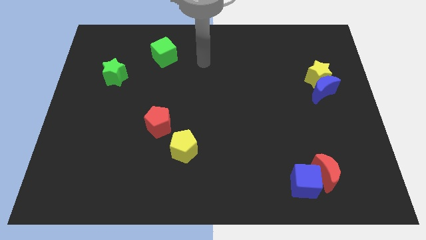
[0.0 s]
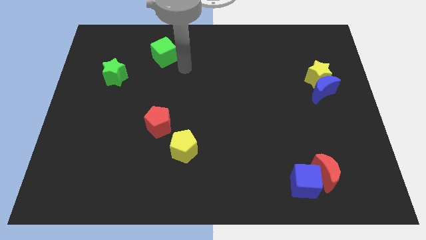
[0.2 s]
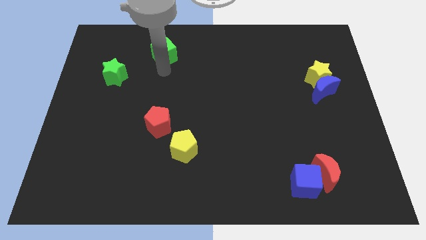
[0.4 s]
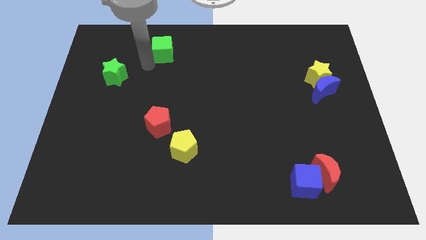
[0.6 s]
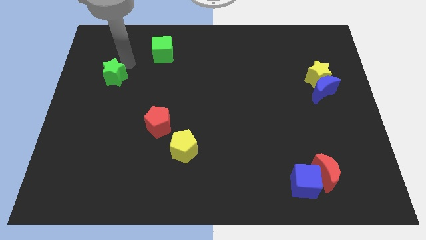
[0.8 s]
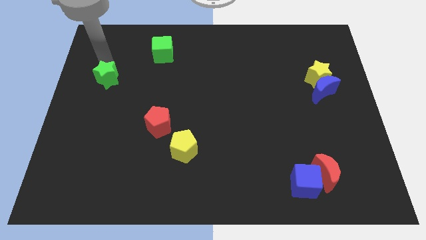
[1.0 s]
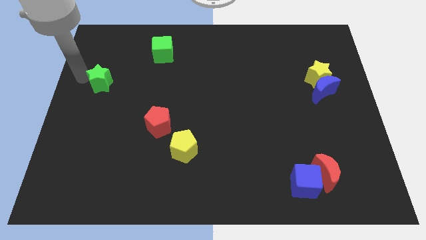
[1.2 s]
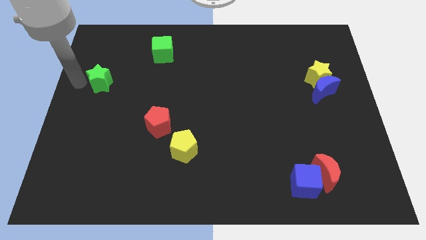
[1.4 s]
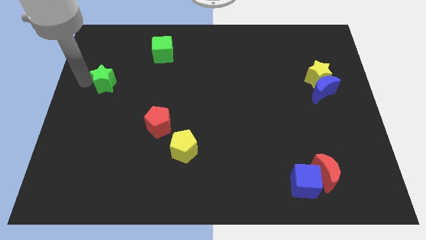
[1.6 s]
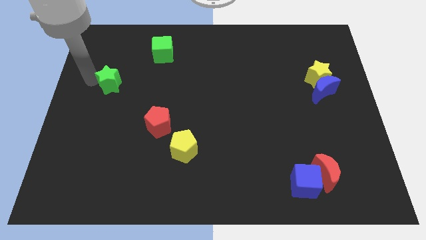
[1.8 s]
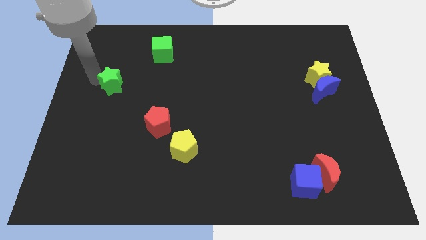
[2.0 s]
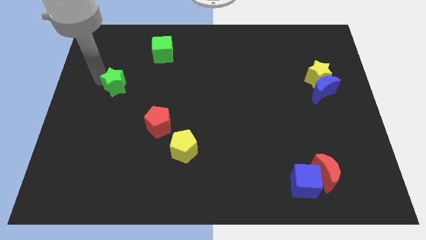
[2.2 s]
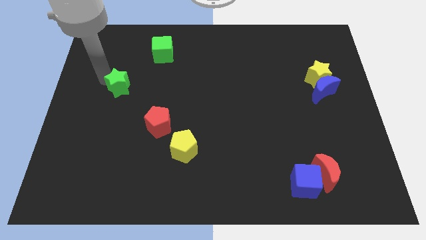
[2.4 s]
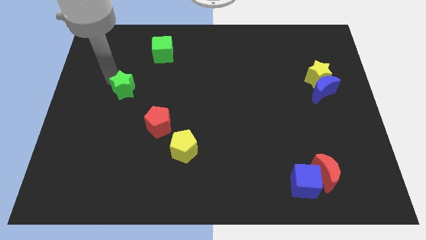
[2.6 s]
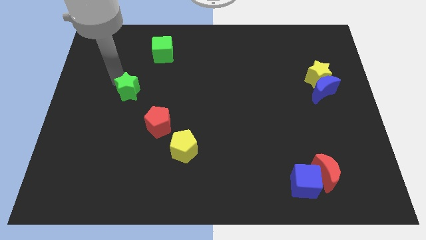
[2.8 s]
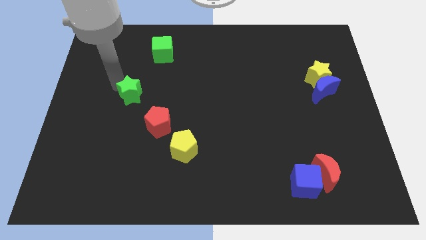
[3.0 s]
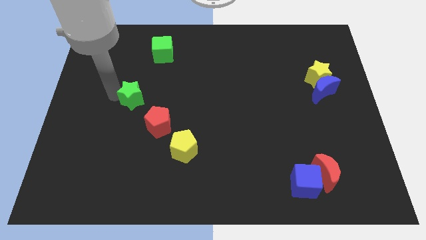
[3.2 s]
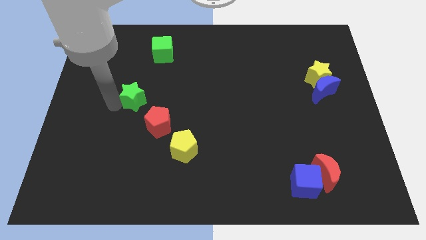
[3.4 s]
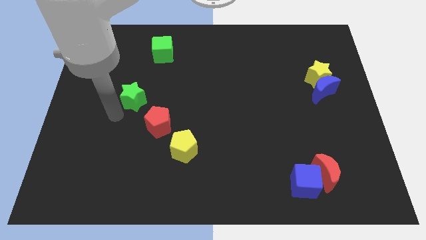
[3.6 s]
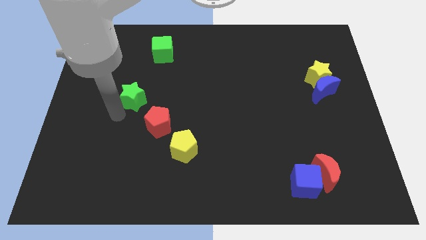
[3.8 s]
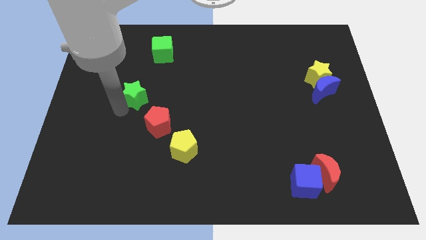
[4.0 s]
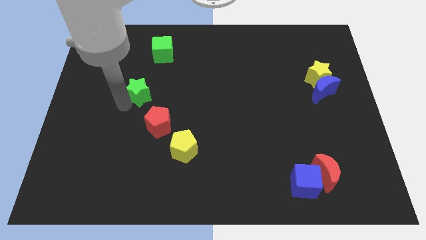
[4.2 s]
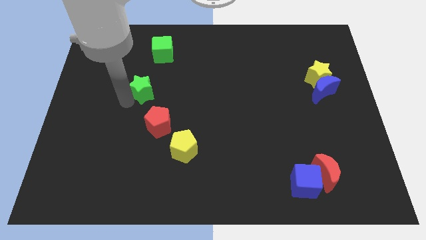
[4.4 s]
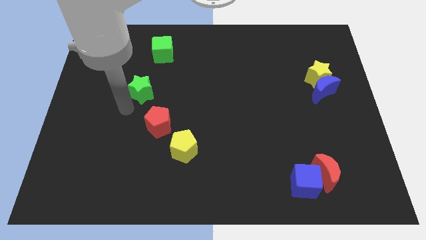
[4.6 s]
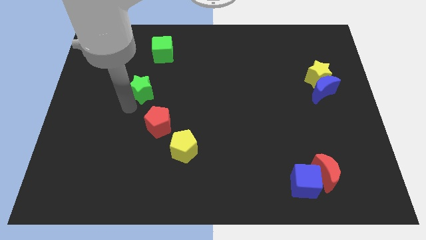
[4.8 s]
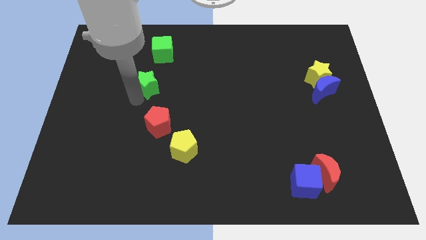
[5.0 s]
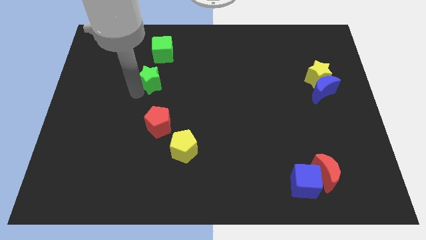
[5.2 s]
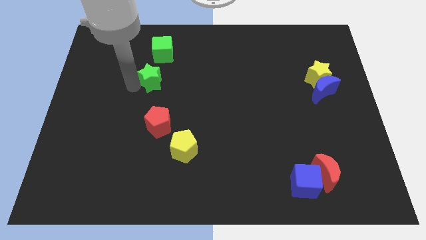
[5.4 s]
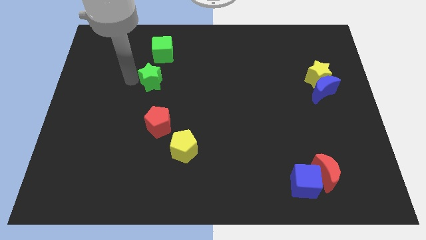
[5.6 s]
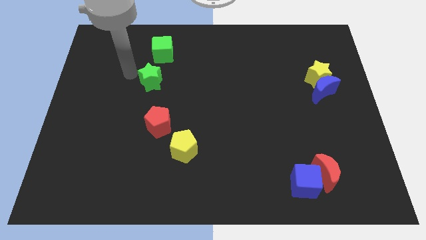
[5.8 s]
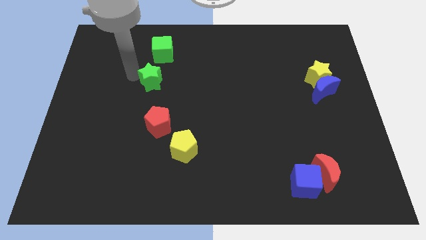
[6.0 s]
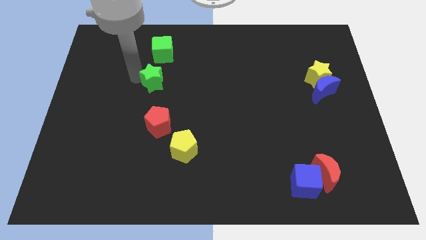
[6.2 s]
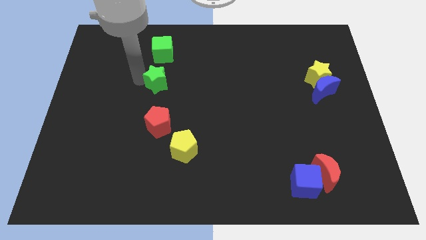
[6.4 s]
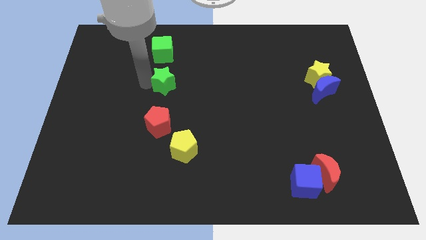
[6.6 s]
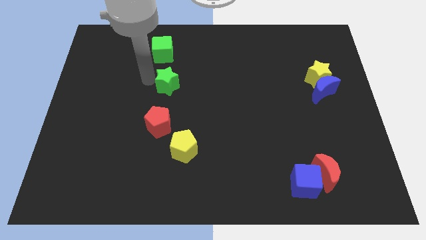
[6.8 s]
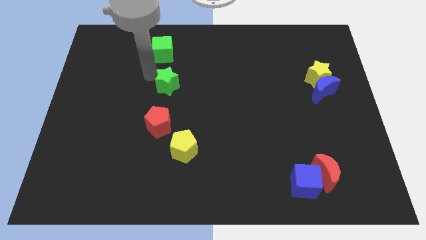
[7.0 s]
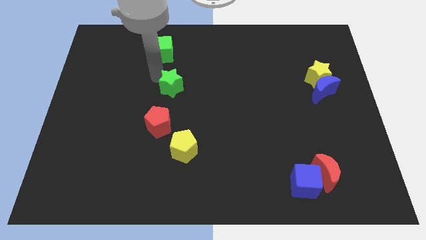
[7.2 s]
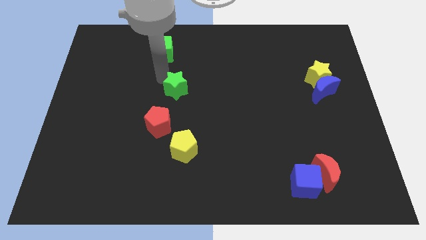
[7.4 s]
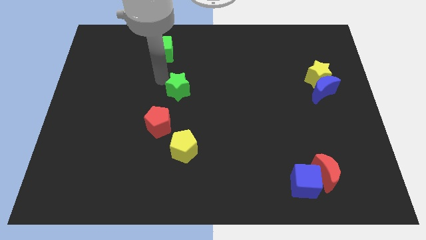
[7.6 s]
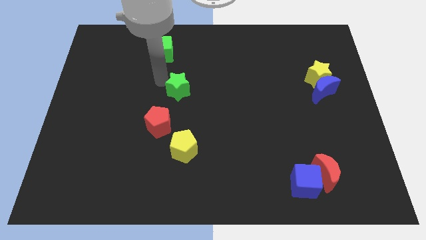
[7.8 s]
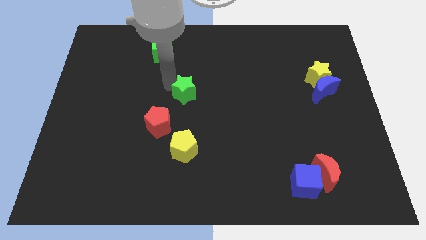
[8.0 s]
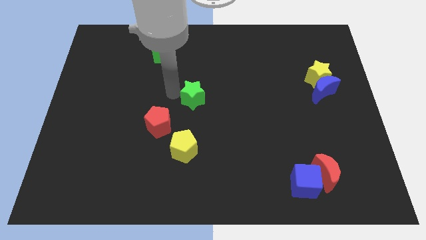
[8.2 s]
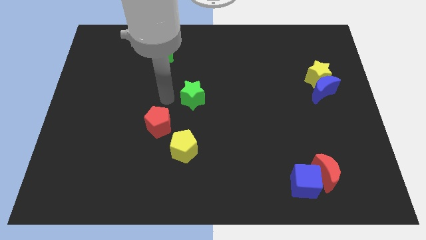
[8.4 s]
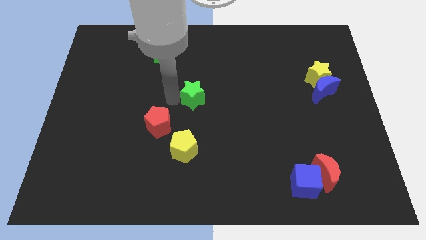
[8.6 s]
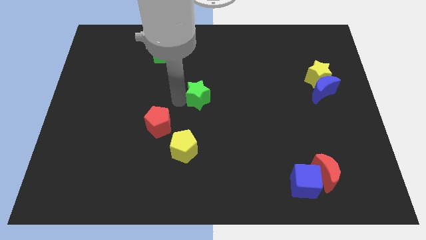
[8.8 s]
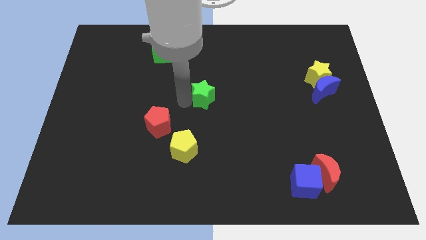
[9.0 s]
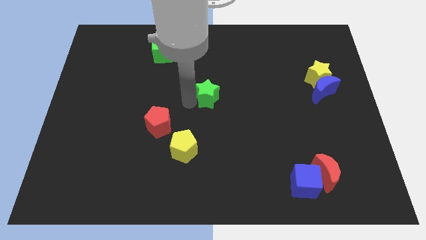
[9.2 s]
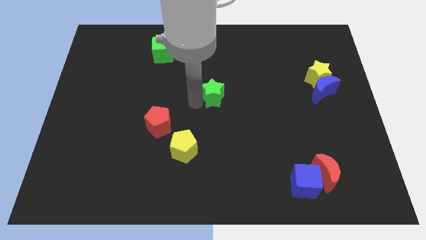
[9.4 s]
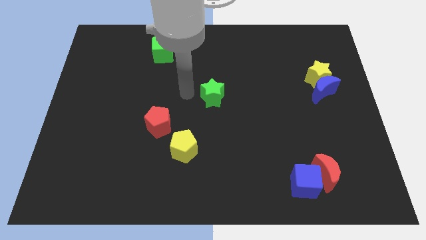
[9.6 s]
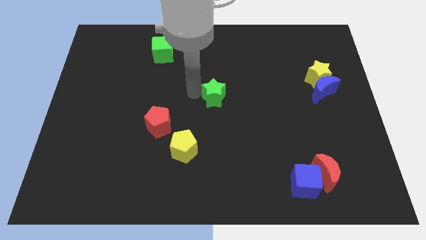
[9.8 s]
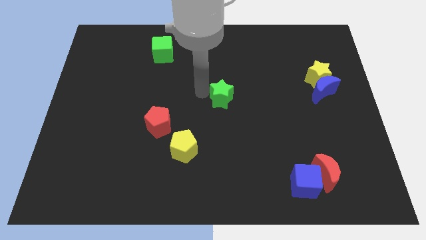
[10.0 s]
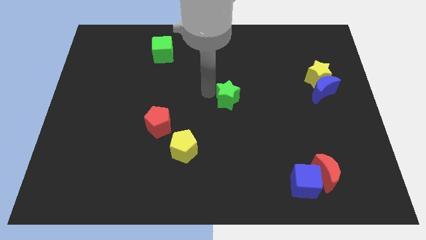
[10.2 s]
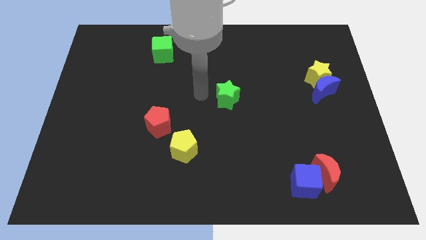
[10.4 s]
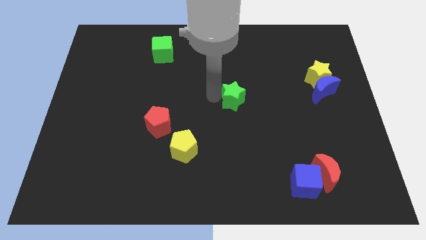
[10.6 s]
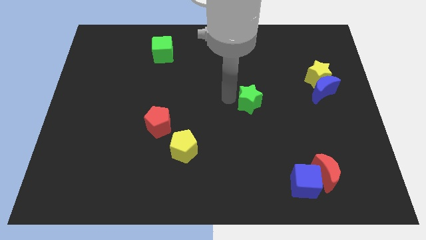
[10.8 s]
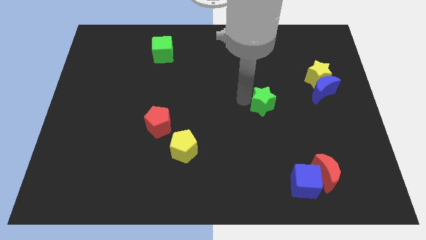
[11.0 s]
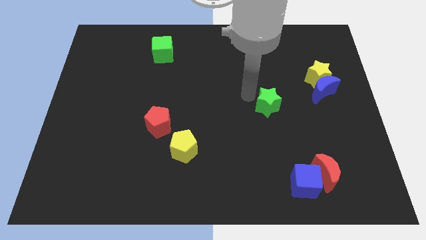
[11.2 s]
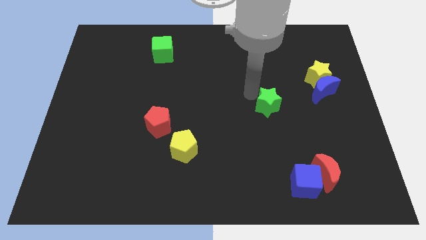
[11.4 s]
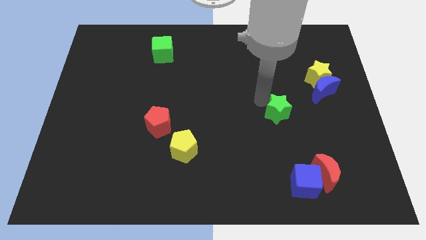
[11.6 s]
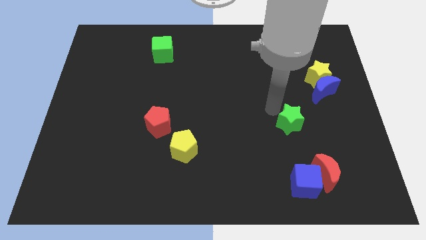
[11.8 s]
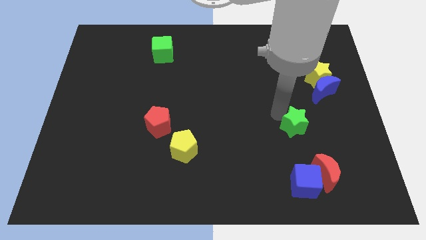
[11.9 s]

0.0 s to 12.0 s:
push the green star to the top side of the red moon
